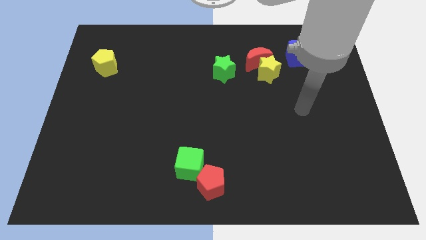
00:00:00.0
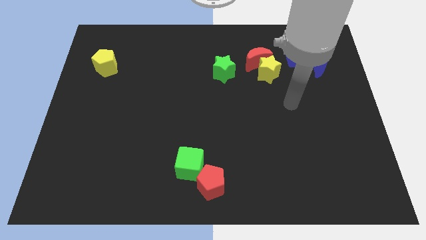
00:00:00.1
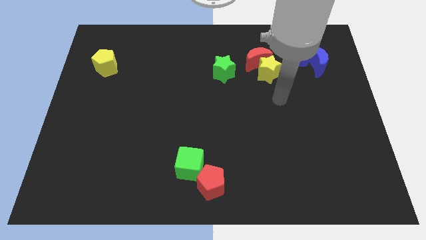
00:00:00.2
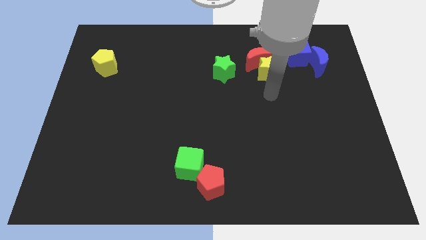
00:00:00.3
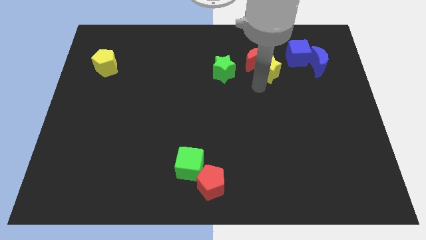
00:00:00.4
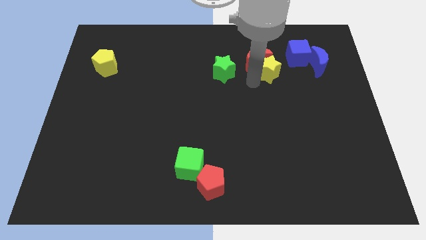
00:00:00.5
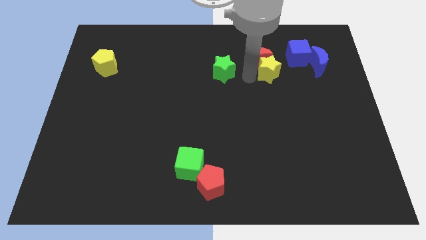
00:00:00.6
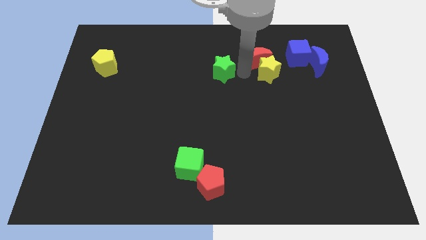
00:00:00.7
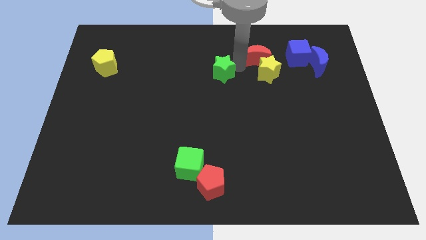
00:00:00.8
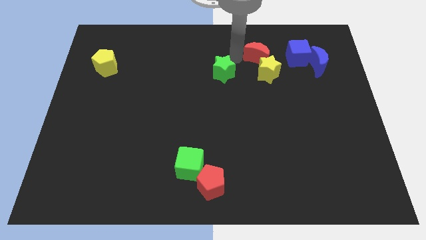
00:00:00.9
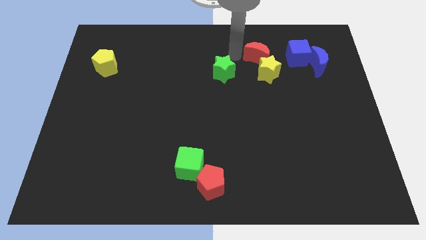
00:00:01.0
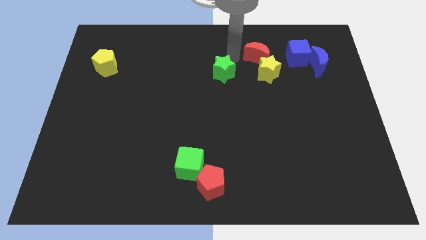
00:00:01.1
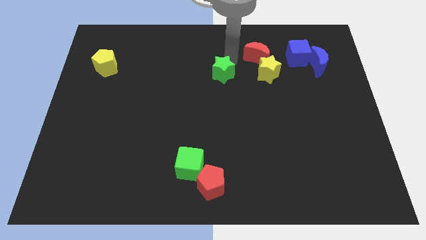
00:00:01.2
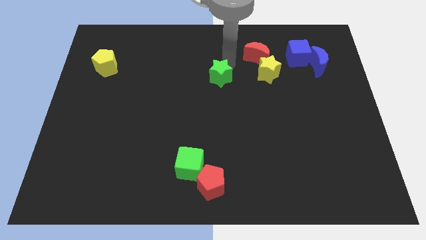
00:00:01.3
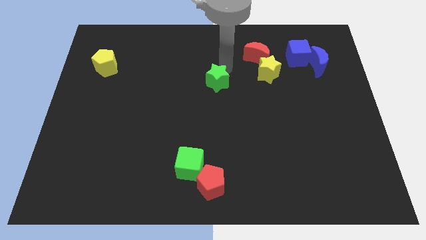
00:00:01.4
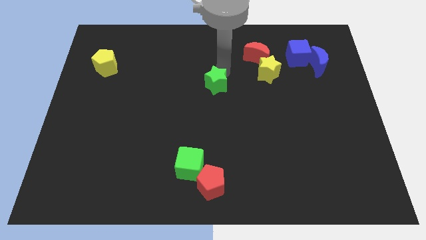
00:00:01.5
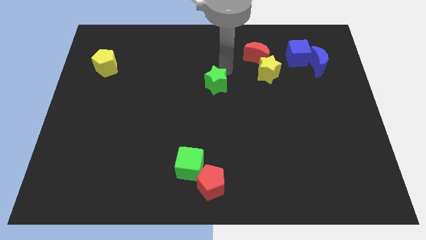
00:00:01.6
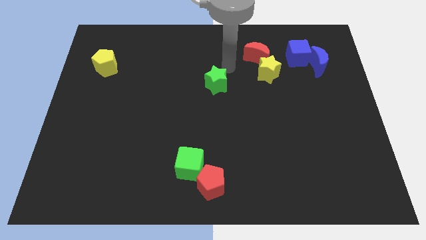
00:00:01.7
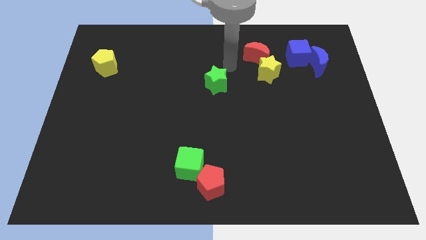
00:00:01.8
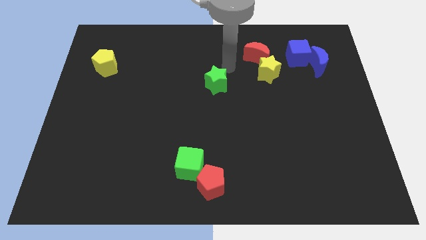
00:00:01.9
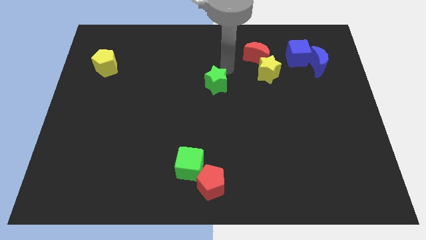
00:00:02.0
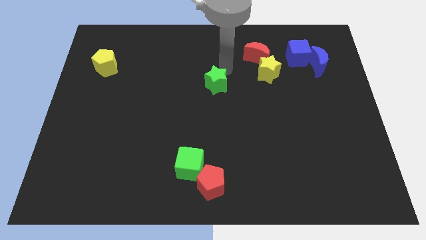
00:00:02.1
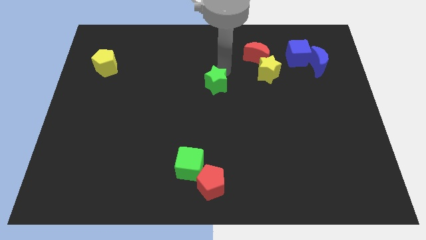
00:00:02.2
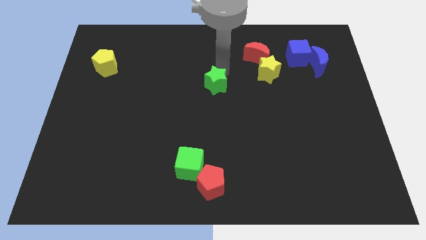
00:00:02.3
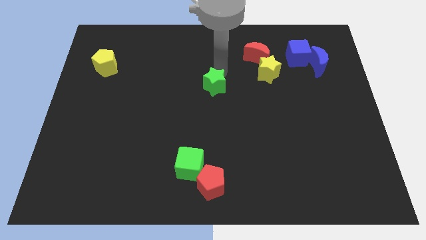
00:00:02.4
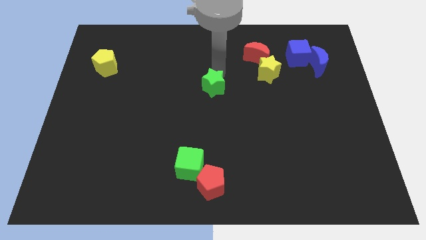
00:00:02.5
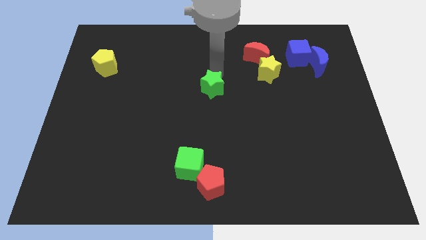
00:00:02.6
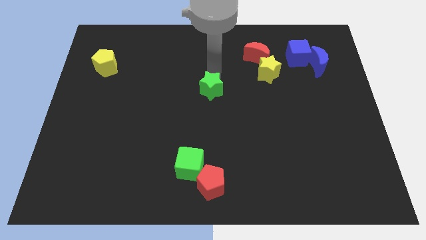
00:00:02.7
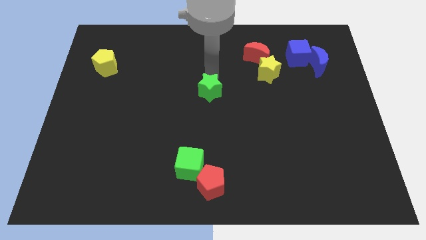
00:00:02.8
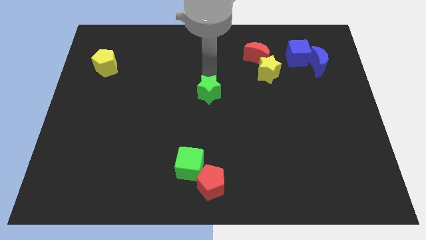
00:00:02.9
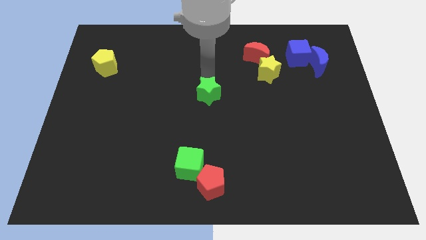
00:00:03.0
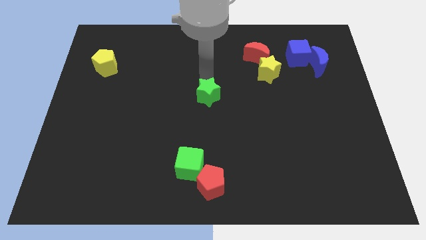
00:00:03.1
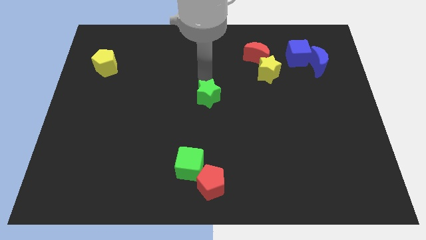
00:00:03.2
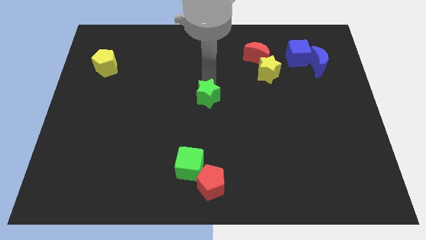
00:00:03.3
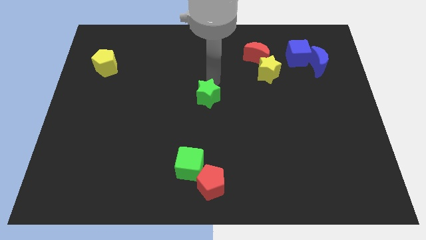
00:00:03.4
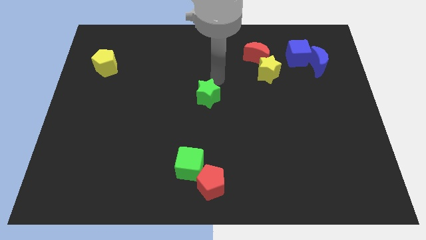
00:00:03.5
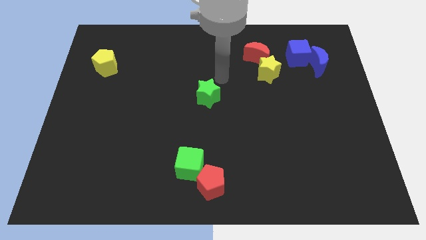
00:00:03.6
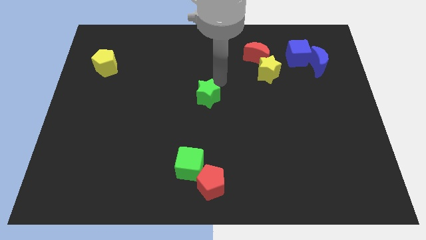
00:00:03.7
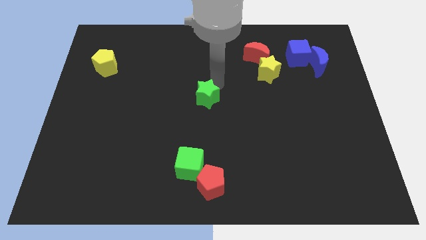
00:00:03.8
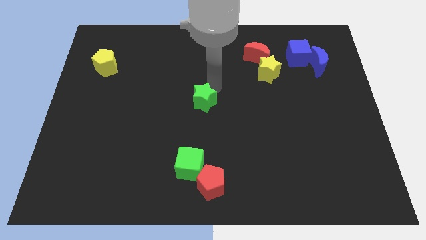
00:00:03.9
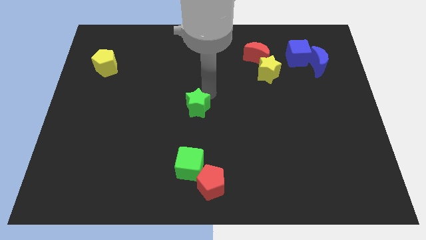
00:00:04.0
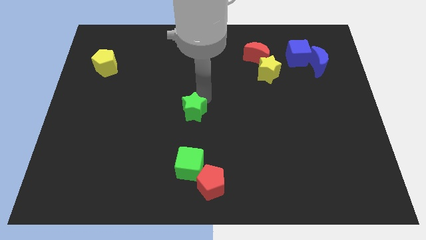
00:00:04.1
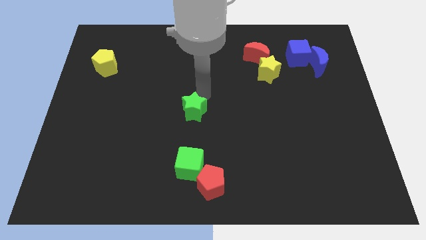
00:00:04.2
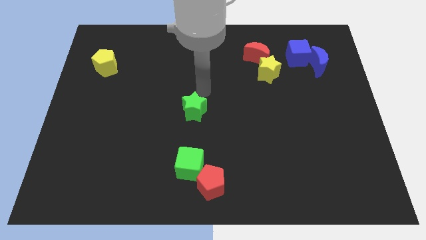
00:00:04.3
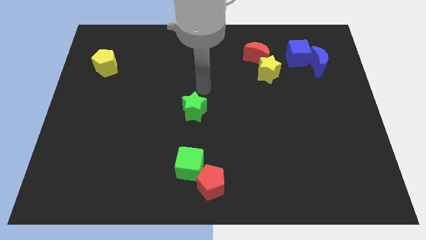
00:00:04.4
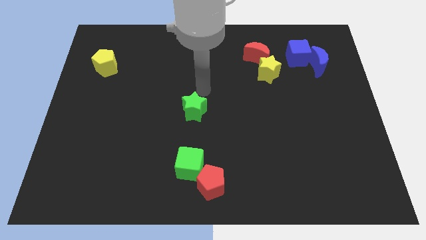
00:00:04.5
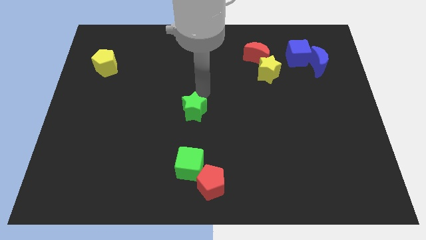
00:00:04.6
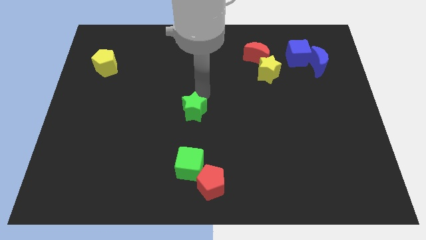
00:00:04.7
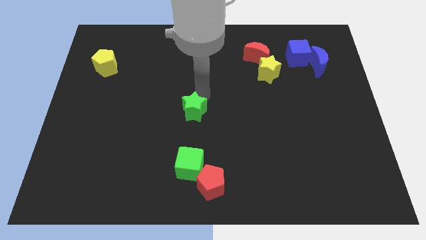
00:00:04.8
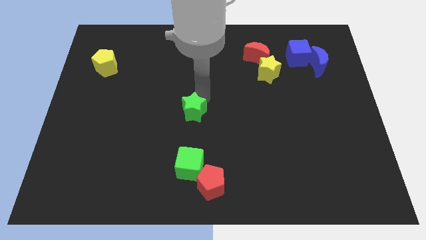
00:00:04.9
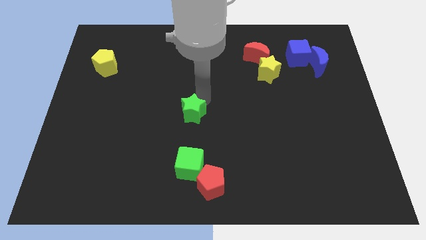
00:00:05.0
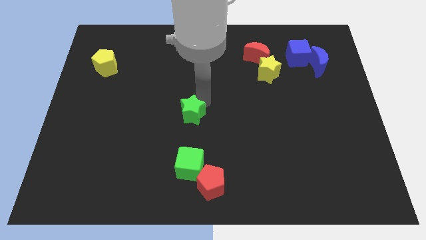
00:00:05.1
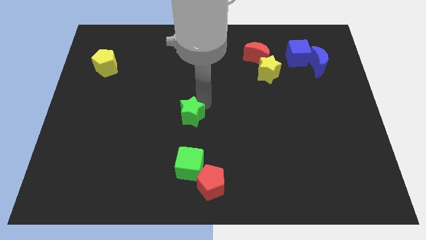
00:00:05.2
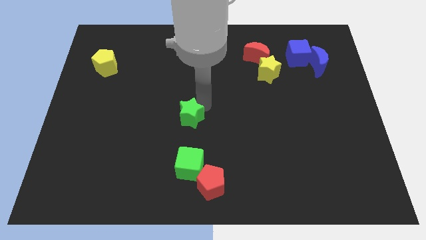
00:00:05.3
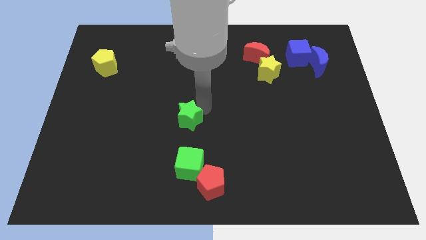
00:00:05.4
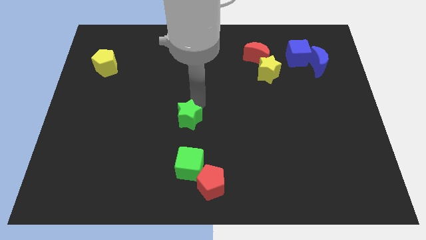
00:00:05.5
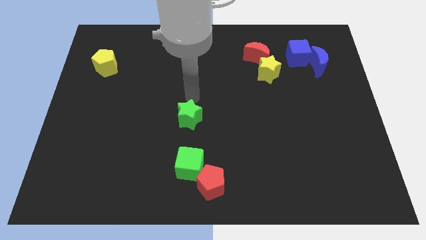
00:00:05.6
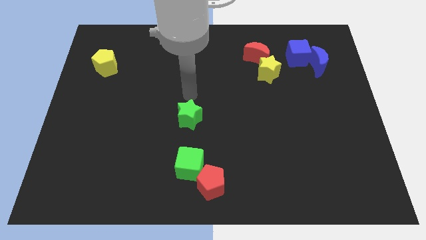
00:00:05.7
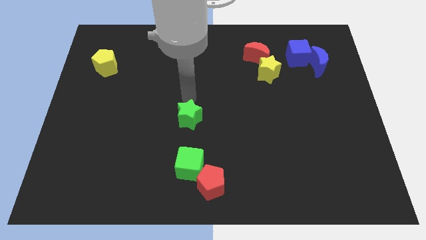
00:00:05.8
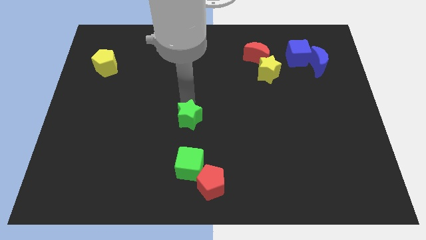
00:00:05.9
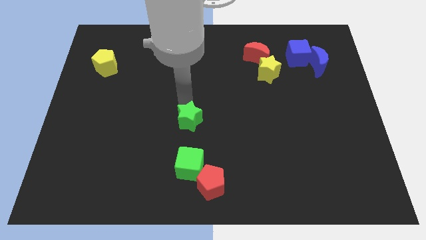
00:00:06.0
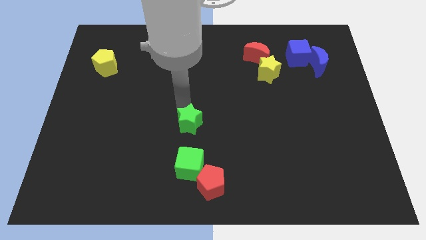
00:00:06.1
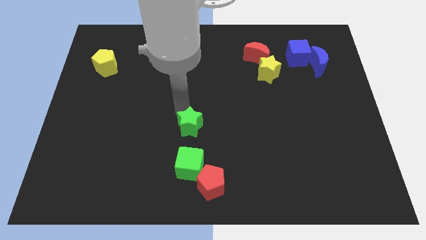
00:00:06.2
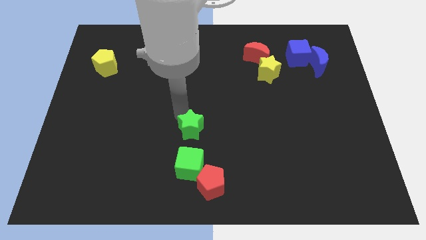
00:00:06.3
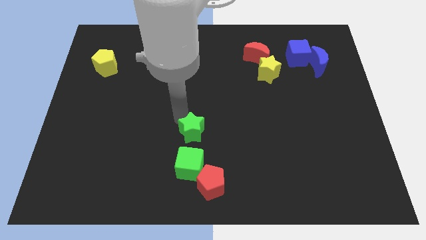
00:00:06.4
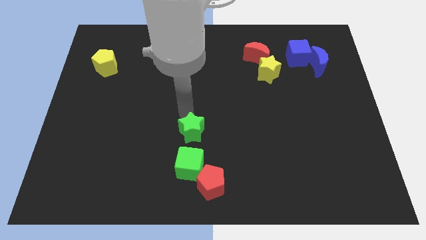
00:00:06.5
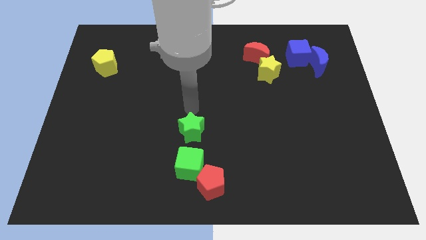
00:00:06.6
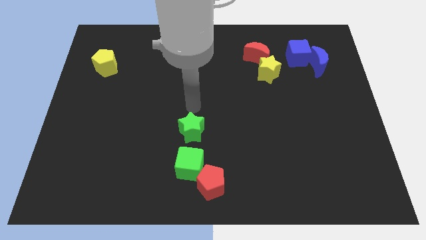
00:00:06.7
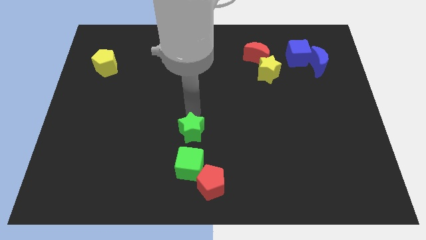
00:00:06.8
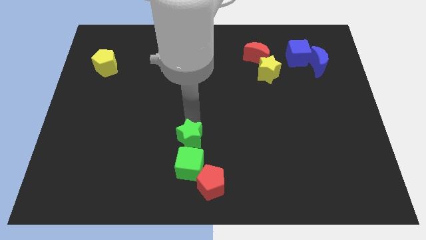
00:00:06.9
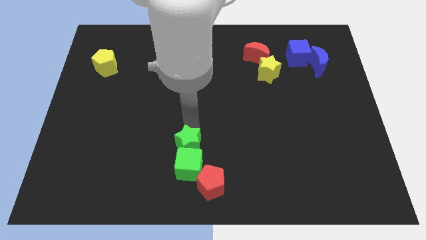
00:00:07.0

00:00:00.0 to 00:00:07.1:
slide the green star to the green cube
